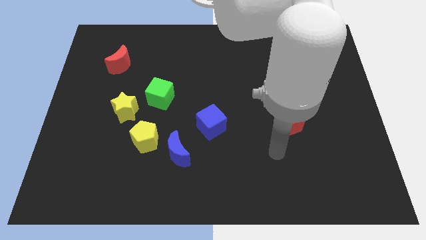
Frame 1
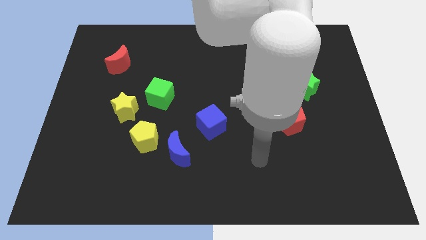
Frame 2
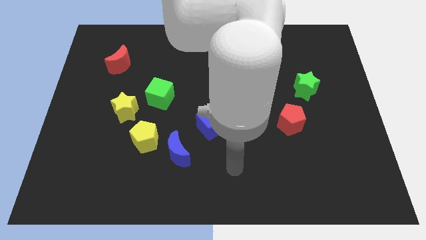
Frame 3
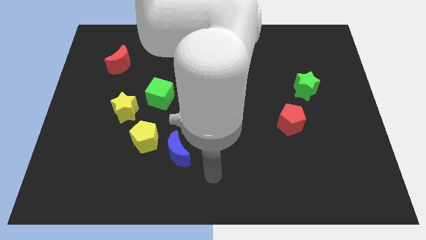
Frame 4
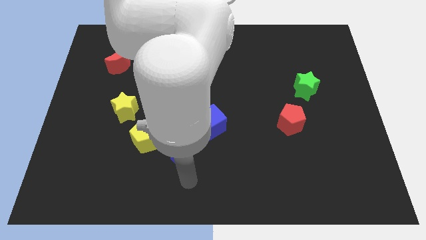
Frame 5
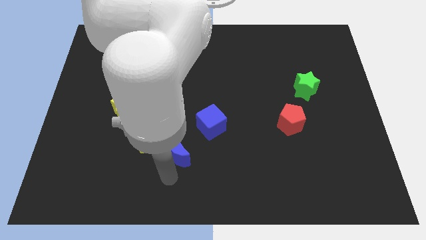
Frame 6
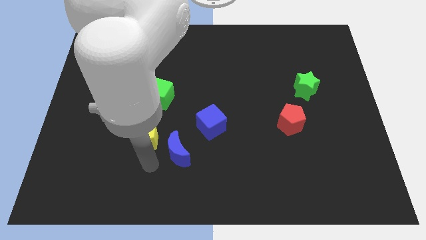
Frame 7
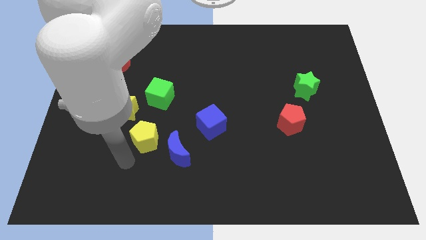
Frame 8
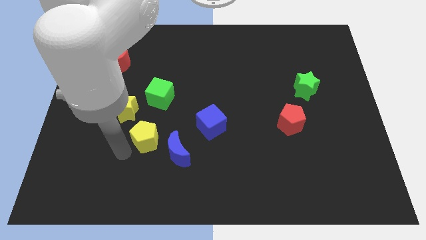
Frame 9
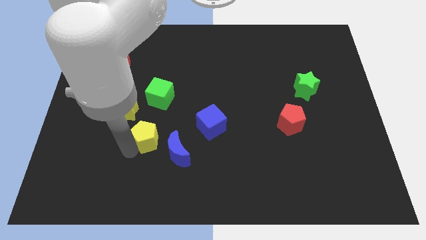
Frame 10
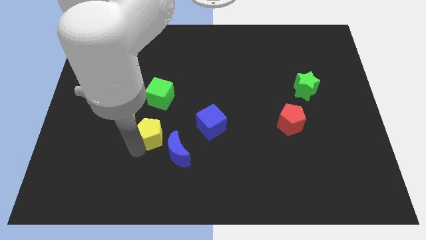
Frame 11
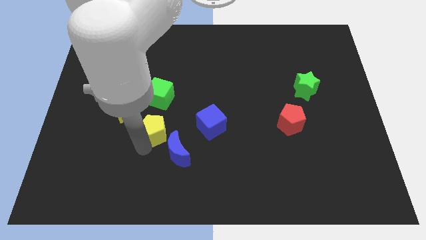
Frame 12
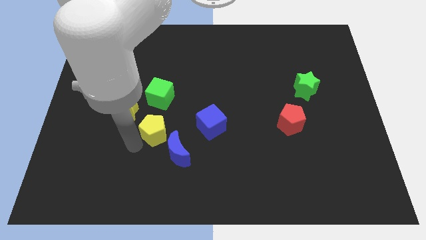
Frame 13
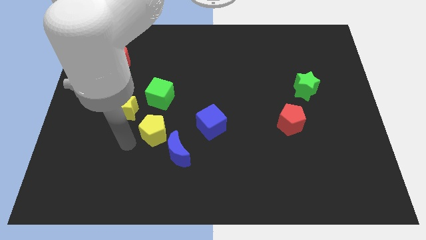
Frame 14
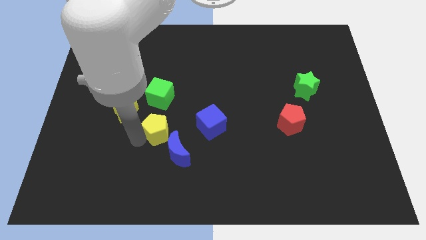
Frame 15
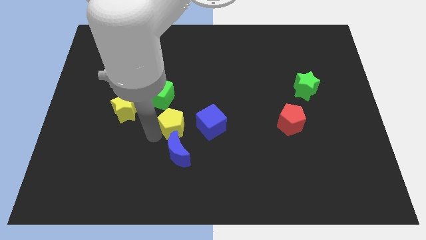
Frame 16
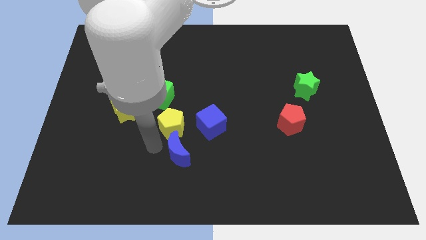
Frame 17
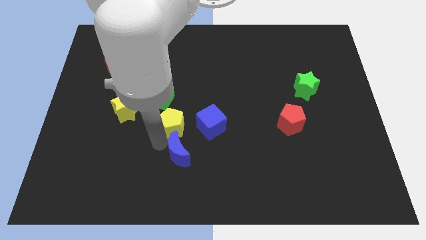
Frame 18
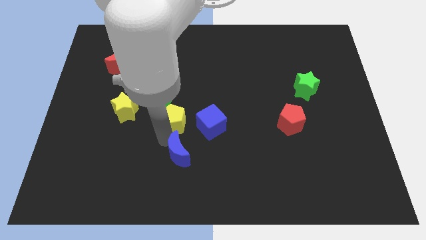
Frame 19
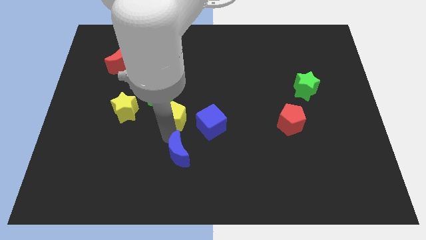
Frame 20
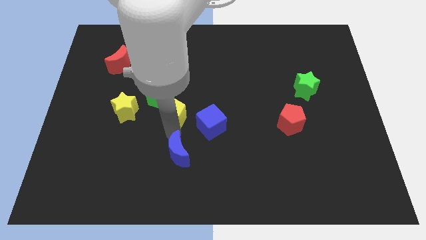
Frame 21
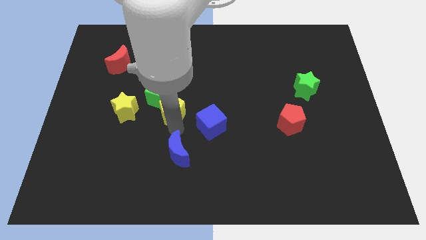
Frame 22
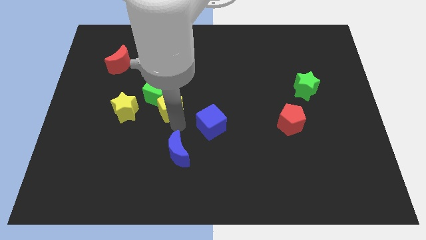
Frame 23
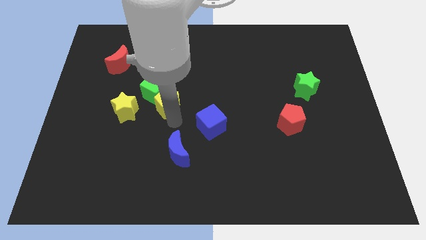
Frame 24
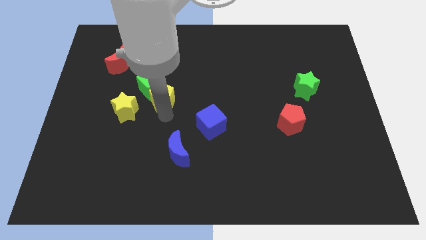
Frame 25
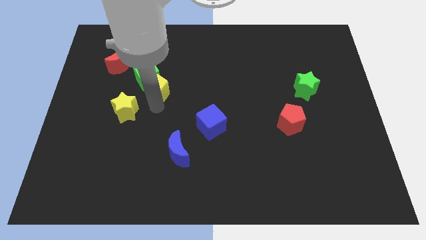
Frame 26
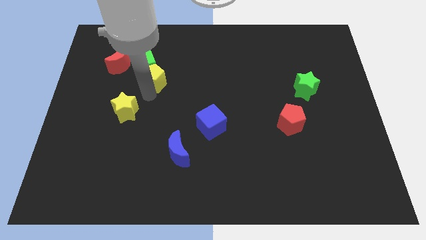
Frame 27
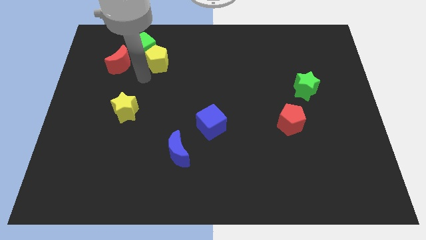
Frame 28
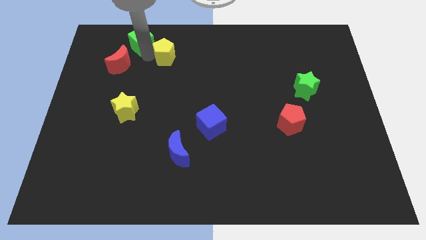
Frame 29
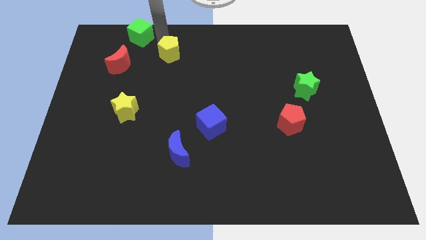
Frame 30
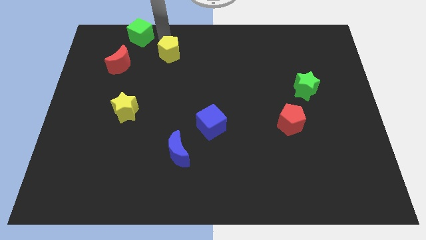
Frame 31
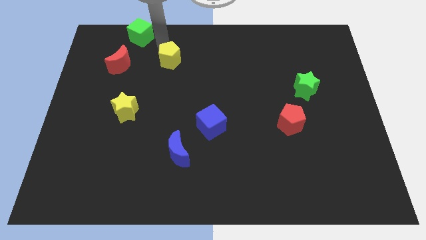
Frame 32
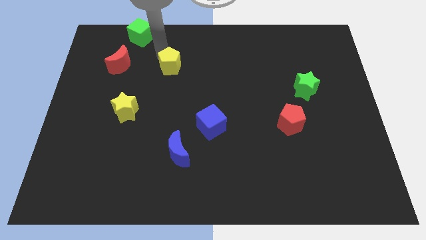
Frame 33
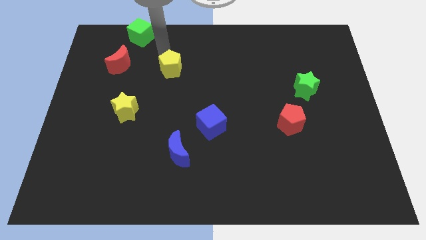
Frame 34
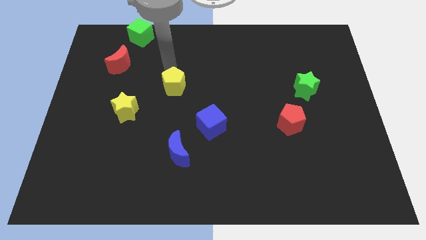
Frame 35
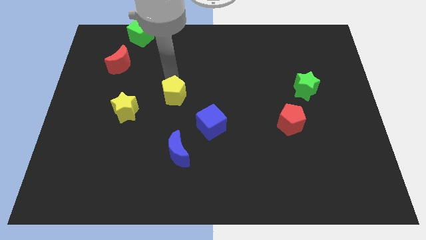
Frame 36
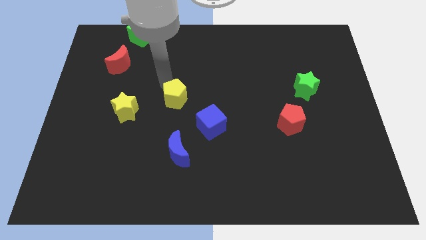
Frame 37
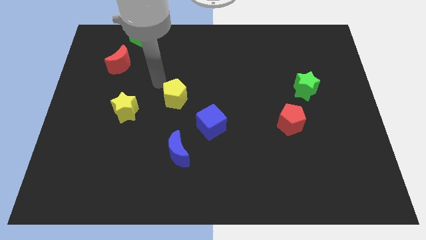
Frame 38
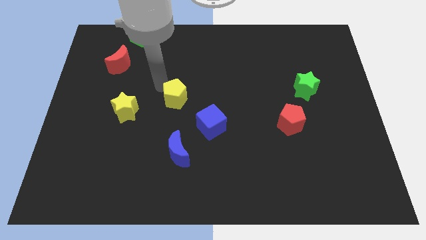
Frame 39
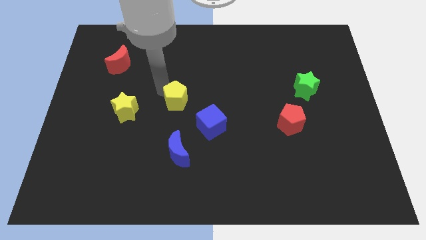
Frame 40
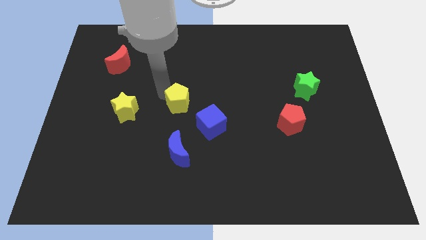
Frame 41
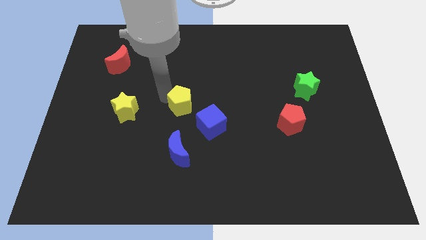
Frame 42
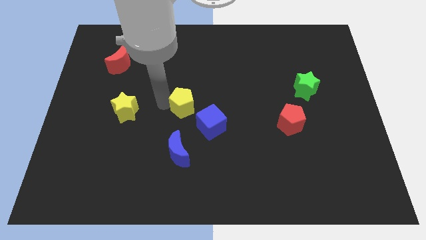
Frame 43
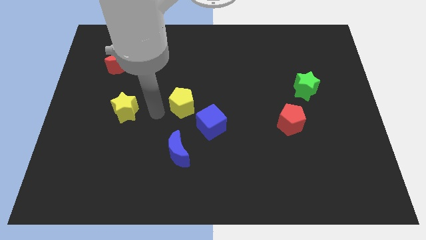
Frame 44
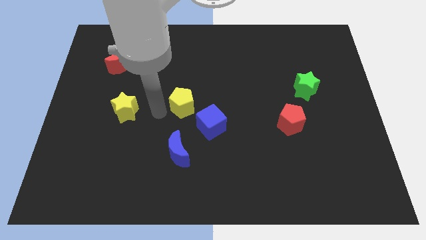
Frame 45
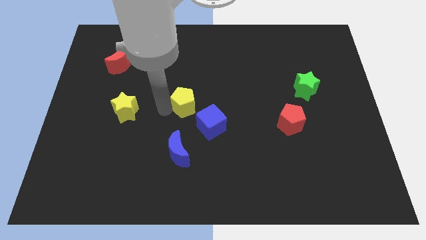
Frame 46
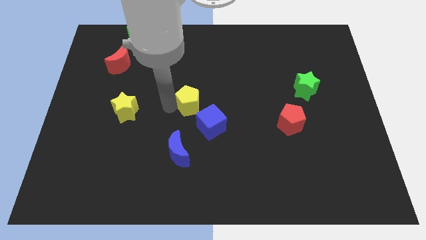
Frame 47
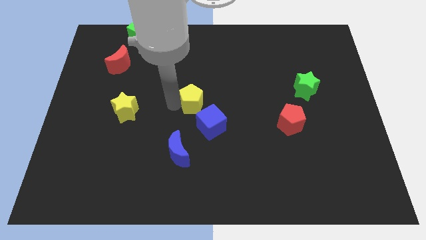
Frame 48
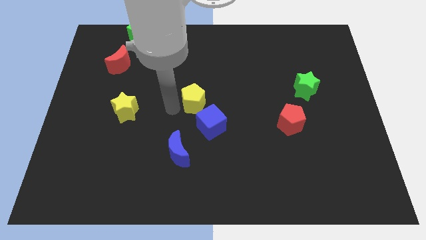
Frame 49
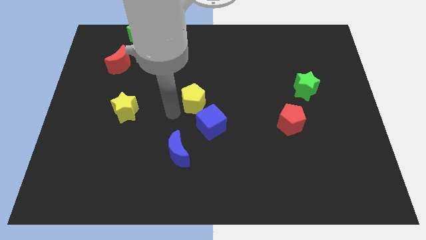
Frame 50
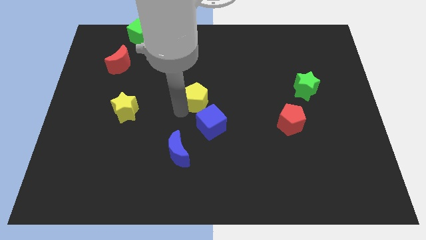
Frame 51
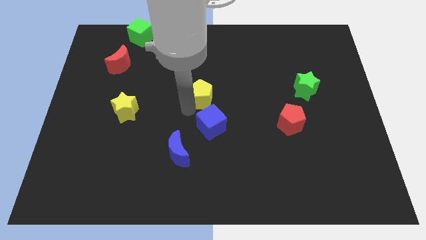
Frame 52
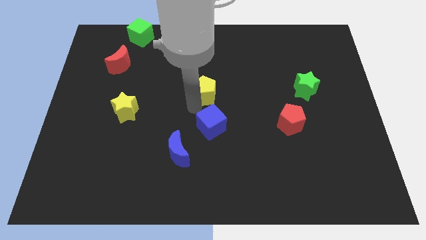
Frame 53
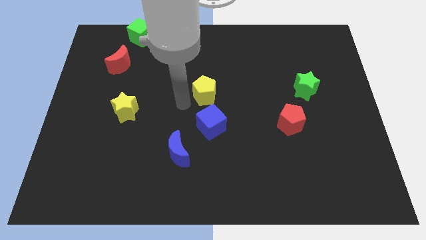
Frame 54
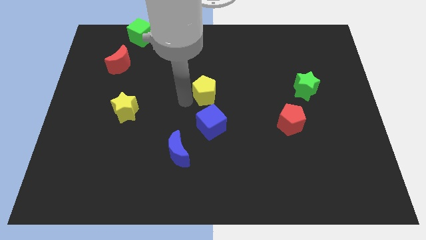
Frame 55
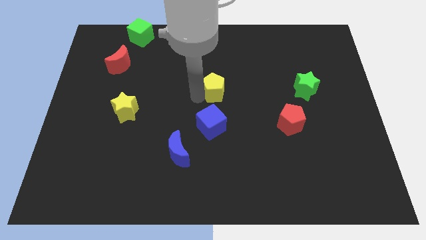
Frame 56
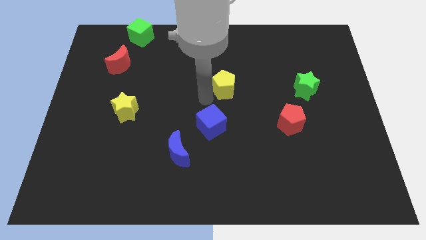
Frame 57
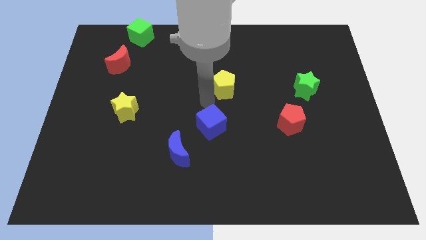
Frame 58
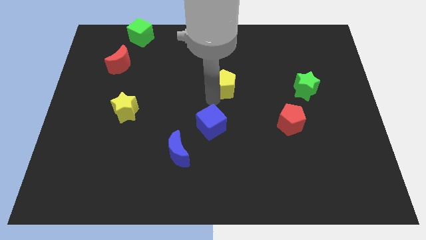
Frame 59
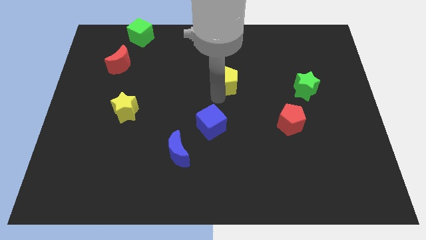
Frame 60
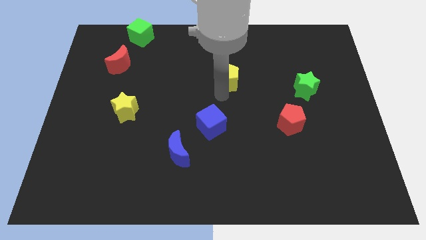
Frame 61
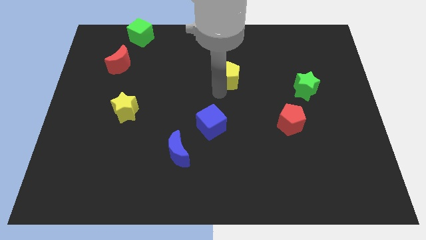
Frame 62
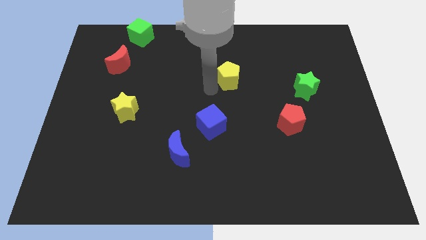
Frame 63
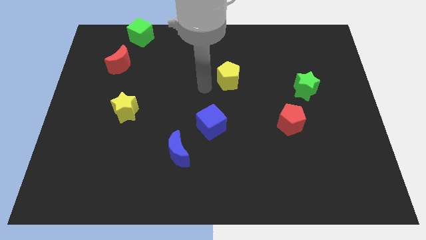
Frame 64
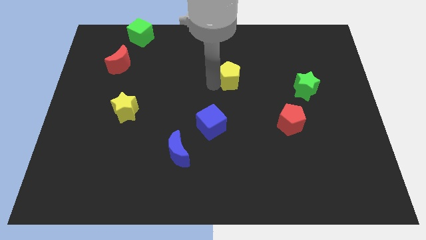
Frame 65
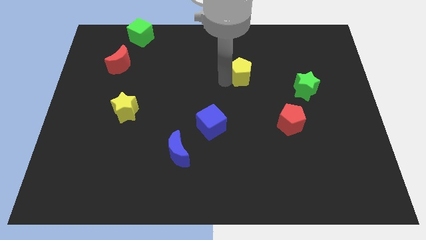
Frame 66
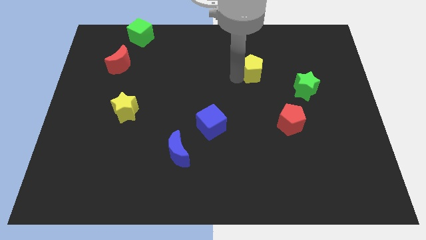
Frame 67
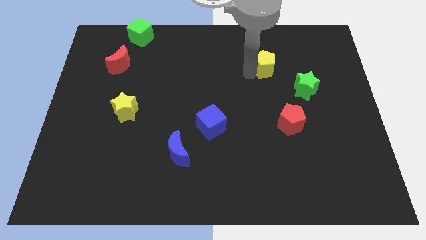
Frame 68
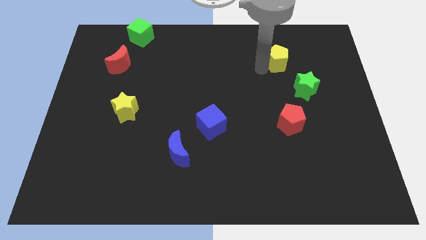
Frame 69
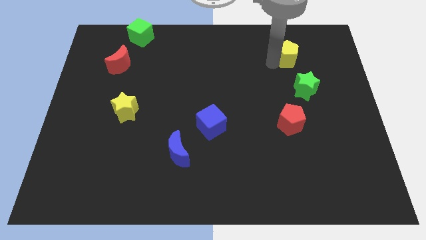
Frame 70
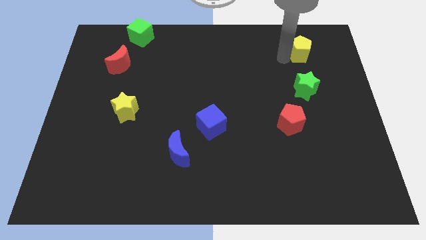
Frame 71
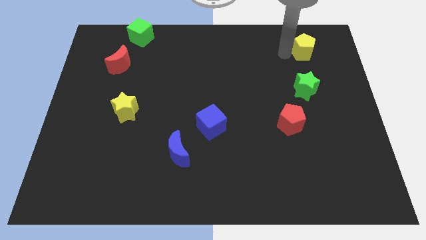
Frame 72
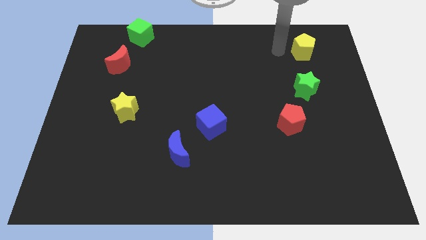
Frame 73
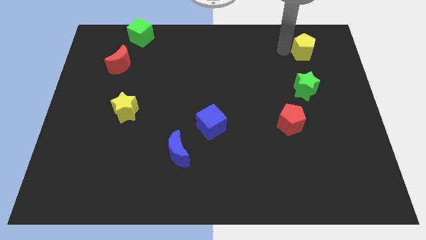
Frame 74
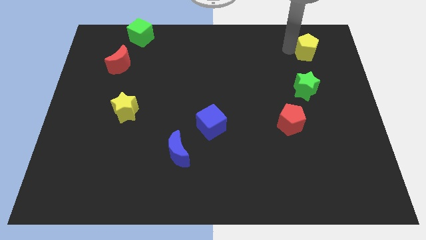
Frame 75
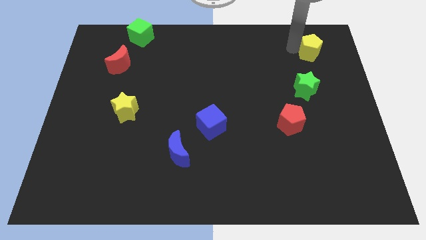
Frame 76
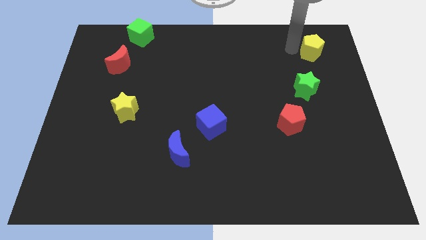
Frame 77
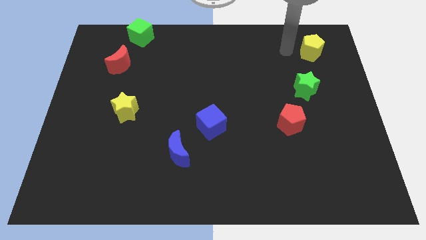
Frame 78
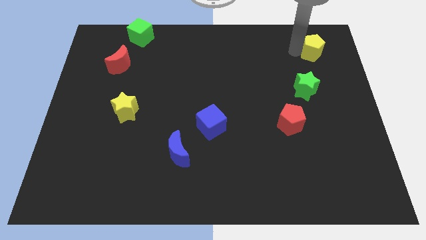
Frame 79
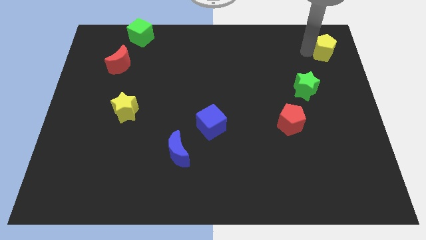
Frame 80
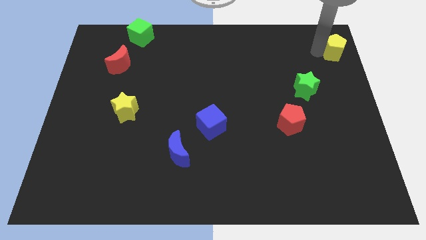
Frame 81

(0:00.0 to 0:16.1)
slide the yellow pentagon to the top right
